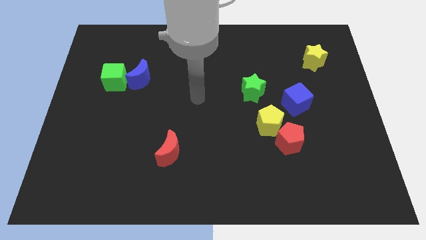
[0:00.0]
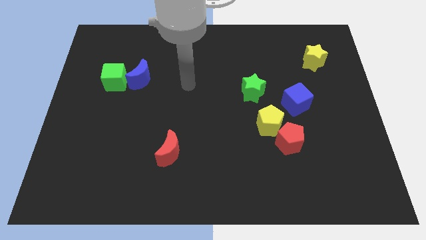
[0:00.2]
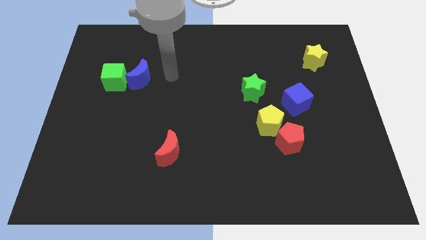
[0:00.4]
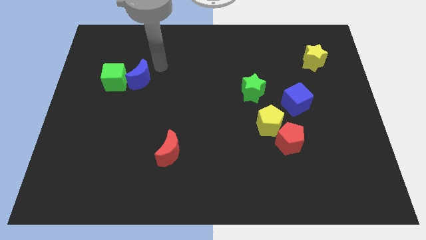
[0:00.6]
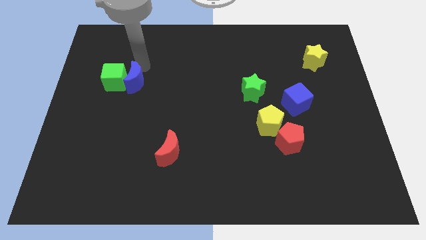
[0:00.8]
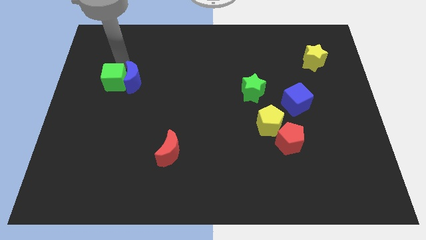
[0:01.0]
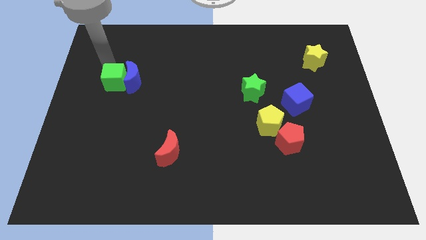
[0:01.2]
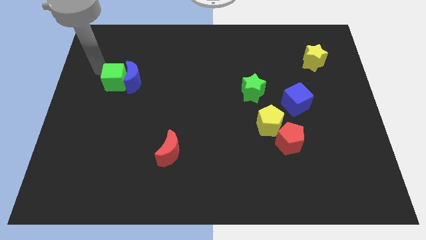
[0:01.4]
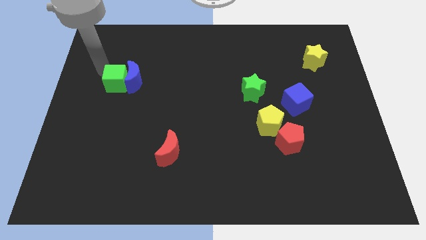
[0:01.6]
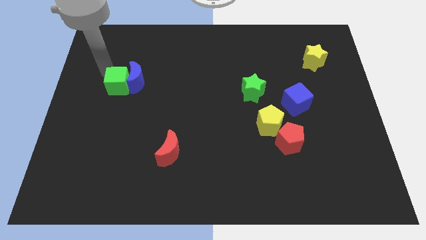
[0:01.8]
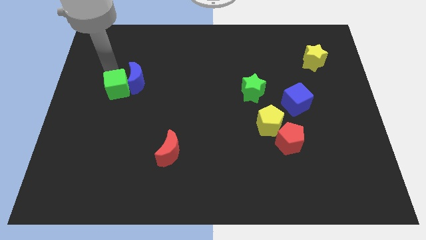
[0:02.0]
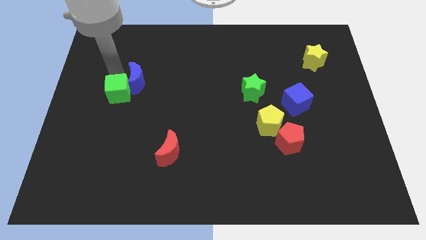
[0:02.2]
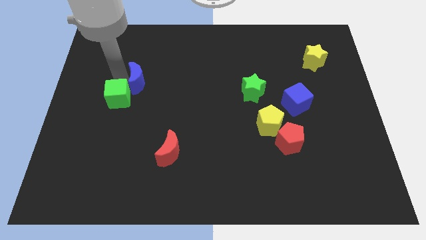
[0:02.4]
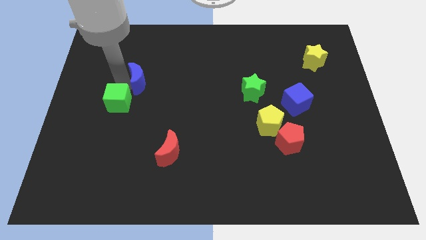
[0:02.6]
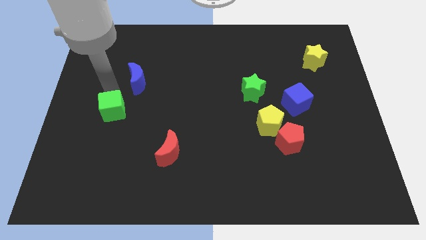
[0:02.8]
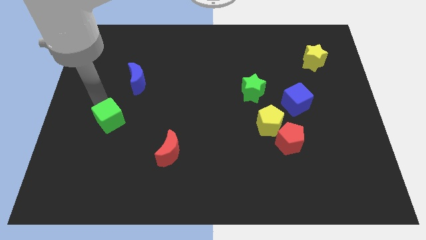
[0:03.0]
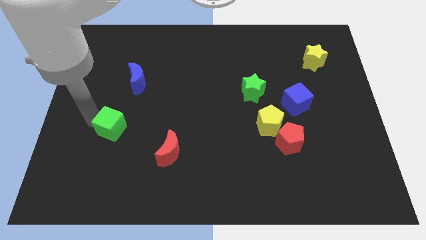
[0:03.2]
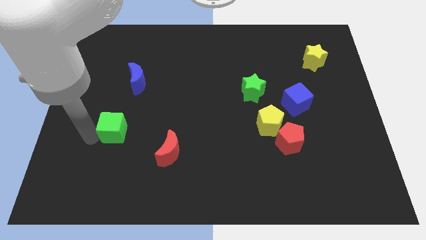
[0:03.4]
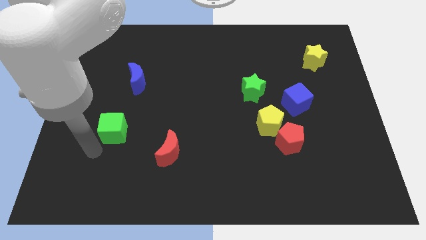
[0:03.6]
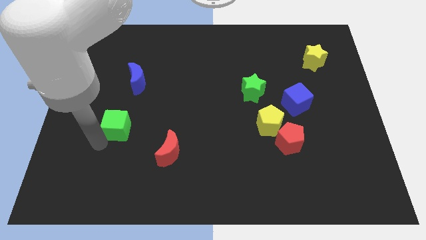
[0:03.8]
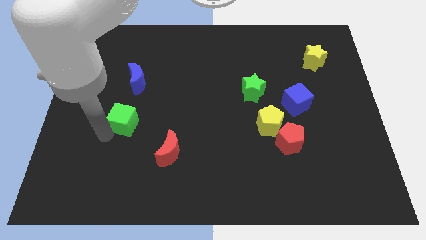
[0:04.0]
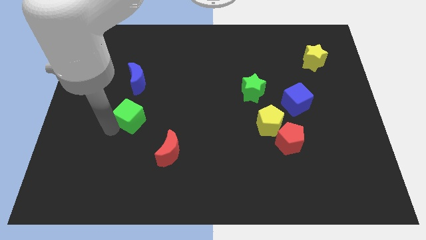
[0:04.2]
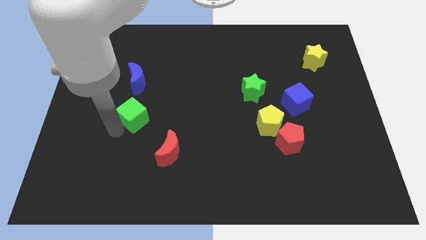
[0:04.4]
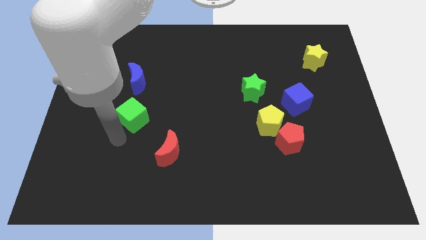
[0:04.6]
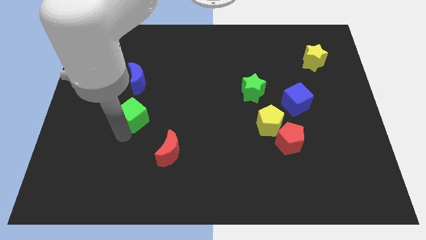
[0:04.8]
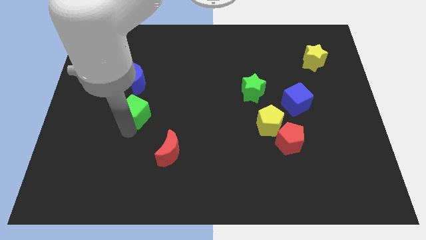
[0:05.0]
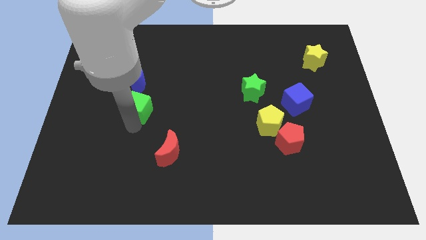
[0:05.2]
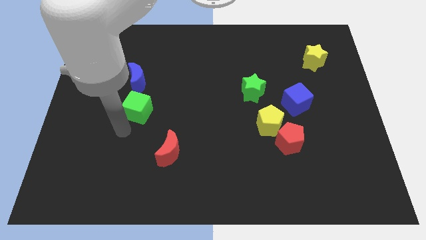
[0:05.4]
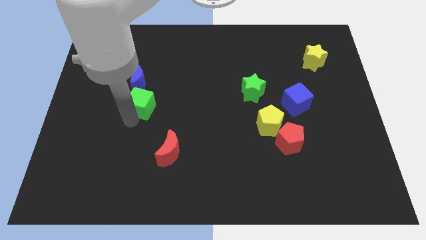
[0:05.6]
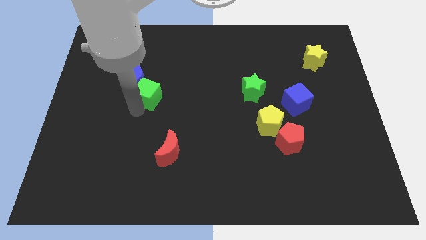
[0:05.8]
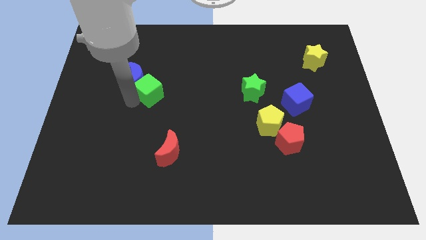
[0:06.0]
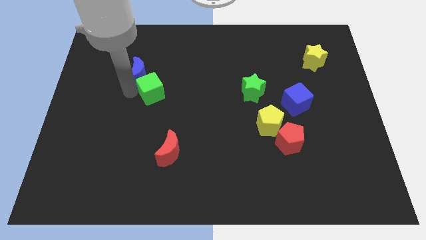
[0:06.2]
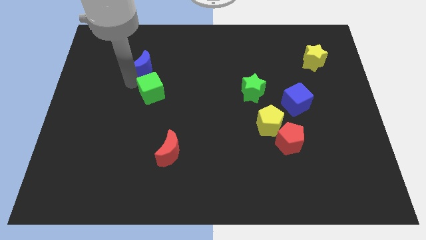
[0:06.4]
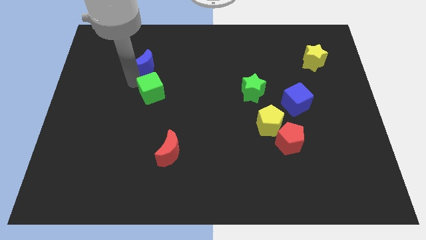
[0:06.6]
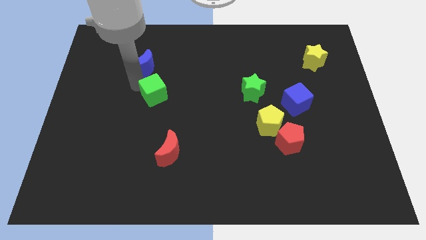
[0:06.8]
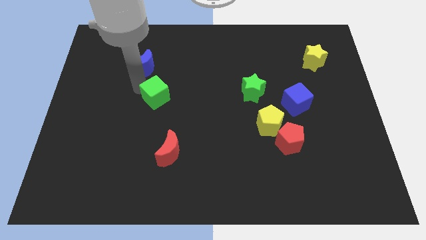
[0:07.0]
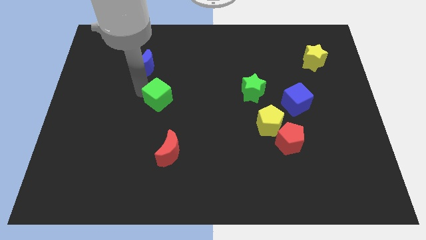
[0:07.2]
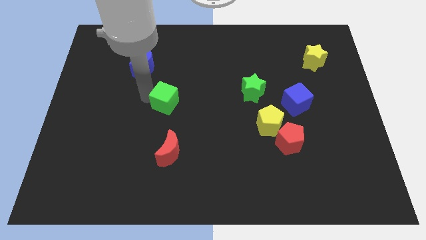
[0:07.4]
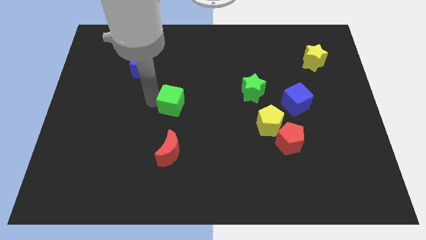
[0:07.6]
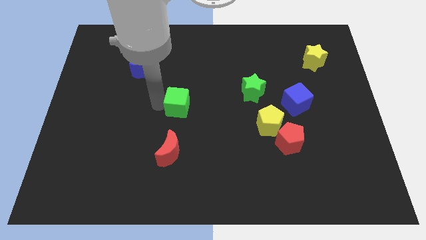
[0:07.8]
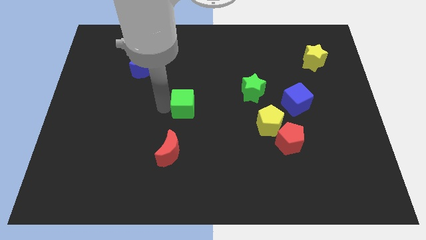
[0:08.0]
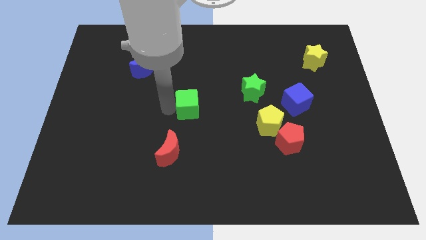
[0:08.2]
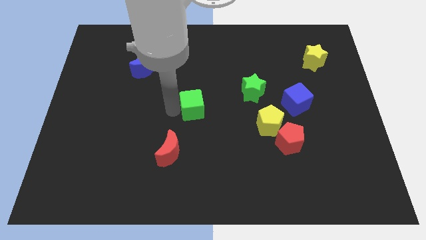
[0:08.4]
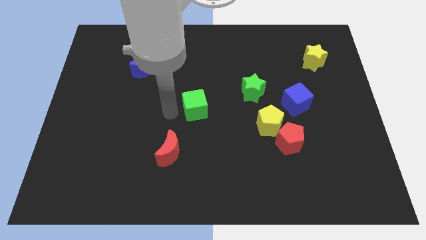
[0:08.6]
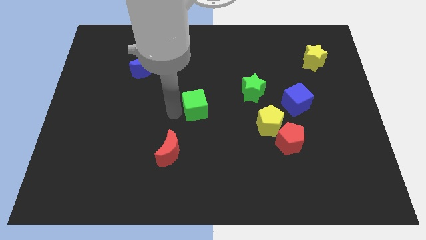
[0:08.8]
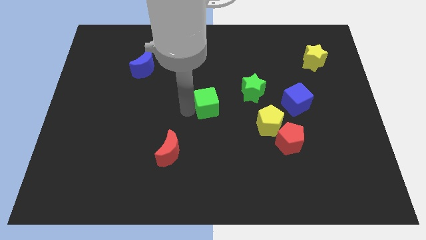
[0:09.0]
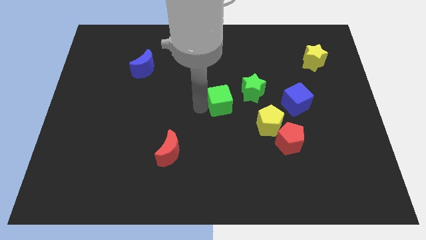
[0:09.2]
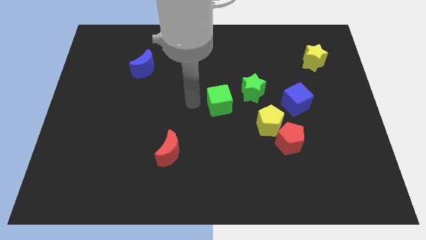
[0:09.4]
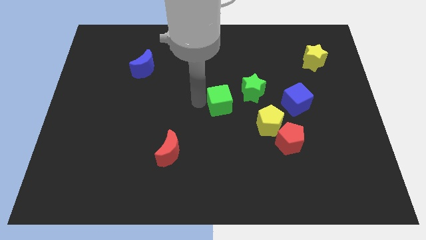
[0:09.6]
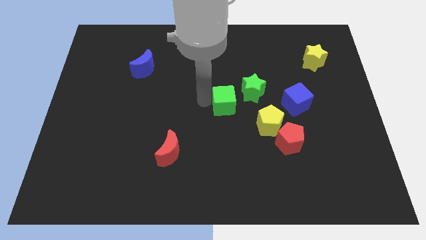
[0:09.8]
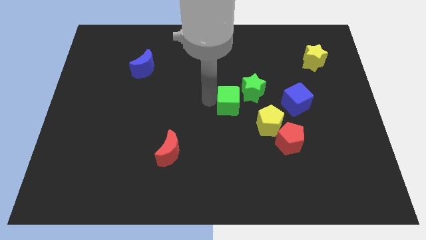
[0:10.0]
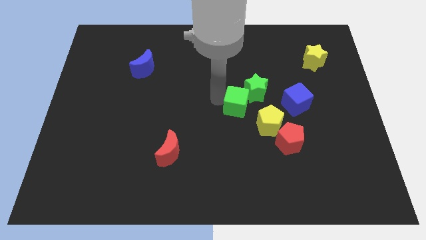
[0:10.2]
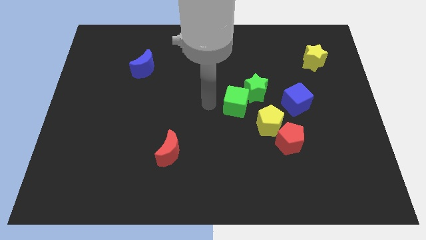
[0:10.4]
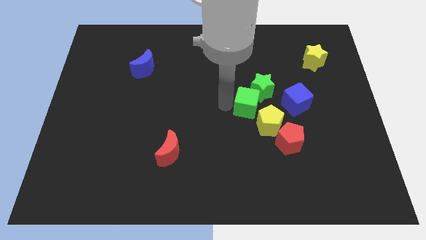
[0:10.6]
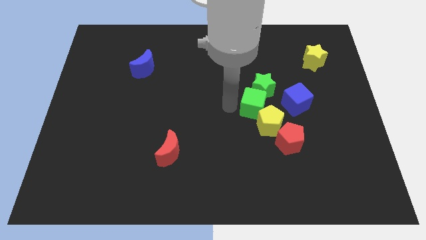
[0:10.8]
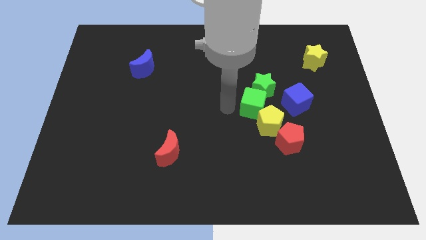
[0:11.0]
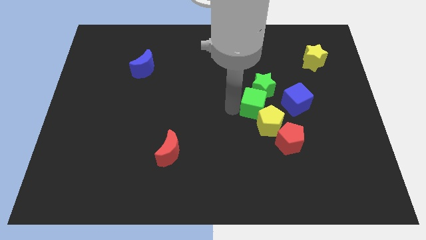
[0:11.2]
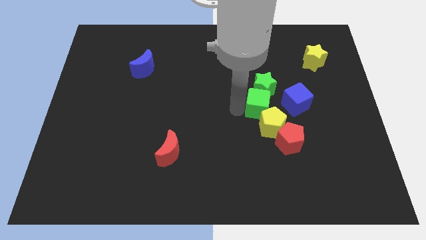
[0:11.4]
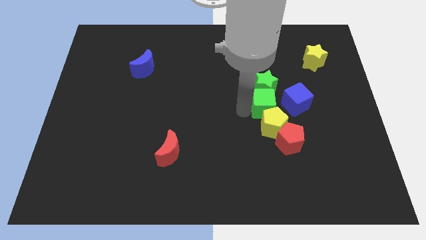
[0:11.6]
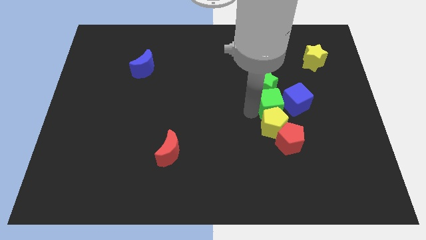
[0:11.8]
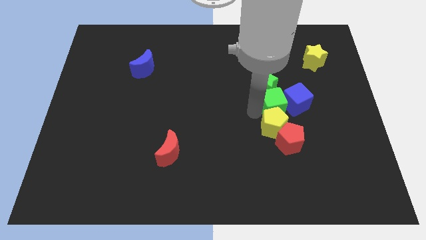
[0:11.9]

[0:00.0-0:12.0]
push the green cube next to the blue cube
